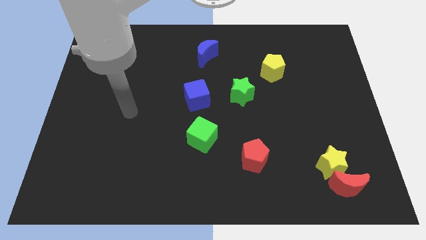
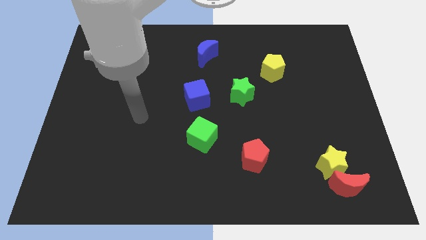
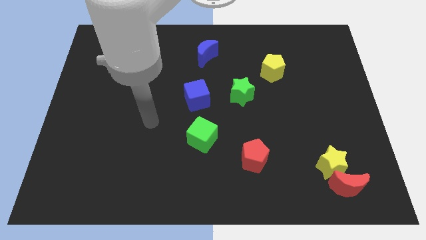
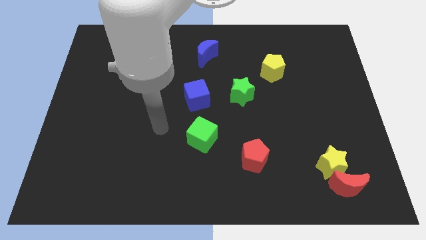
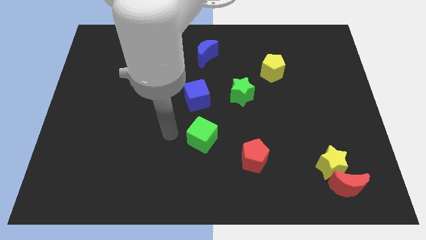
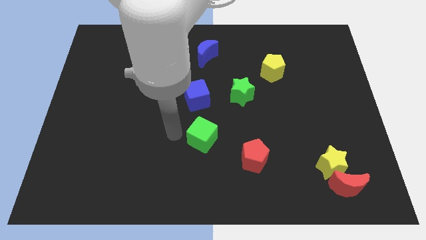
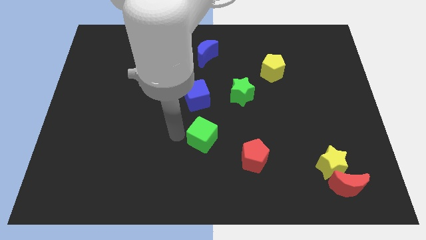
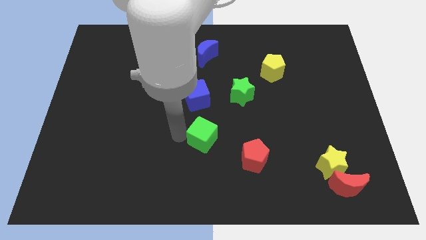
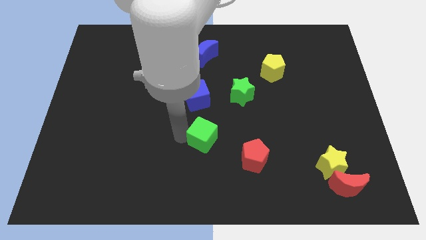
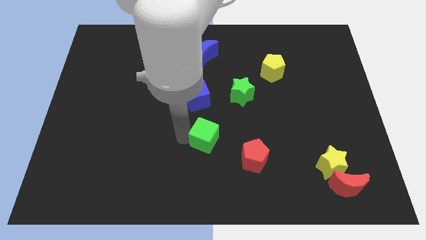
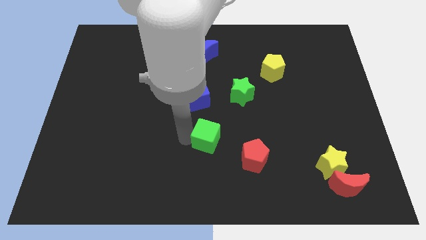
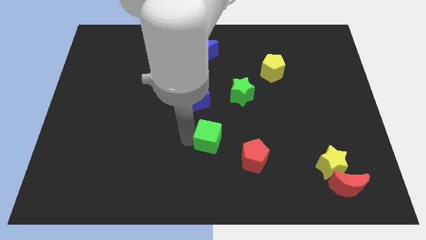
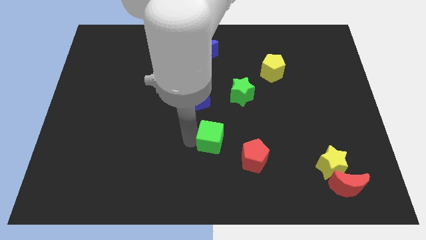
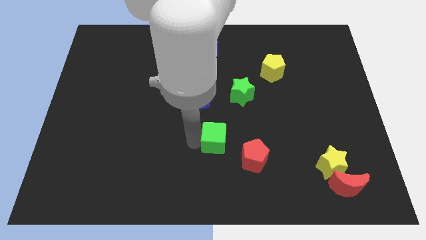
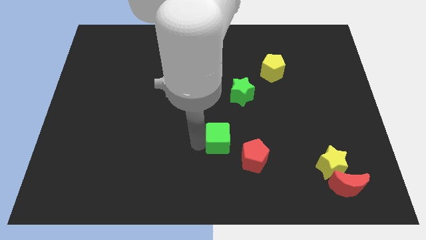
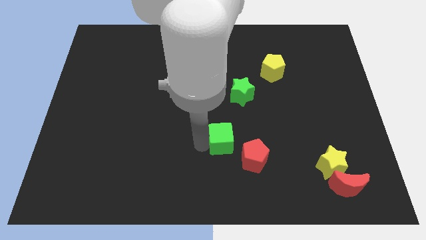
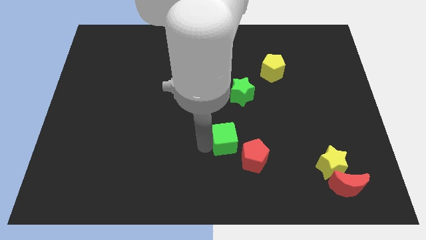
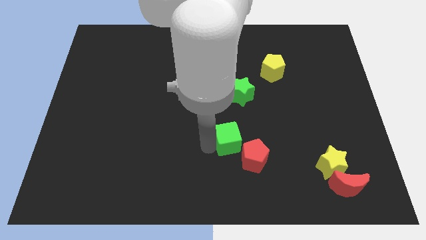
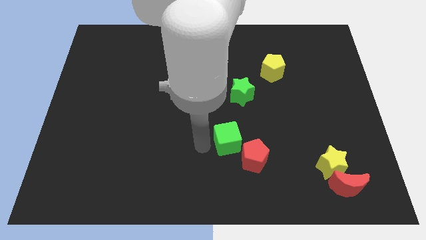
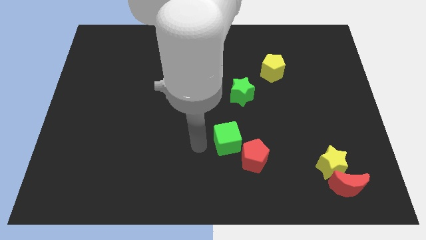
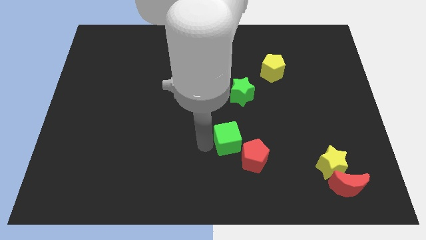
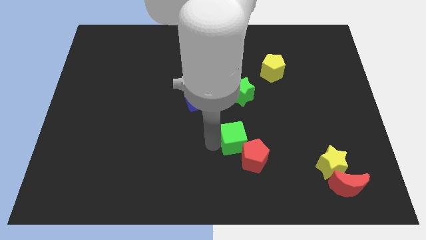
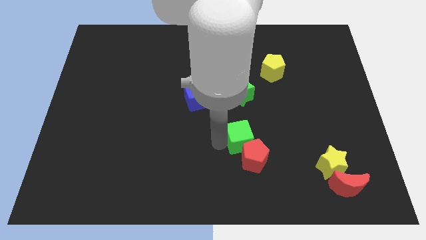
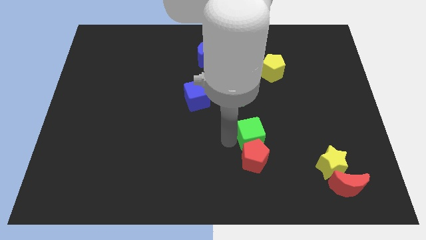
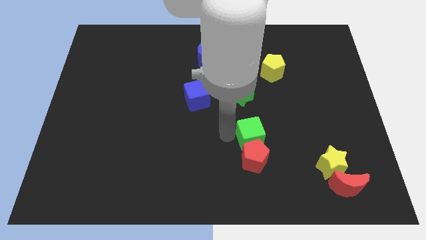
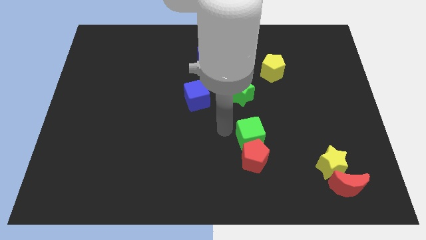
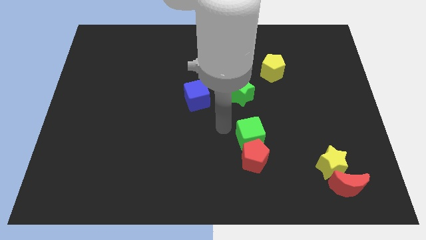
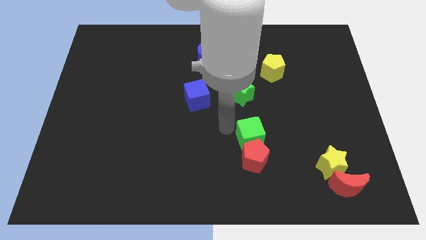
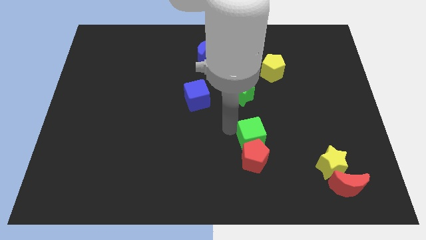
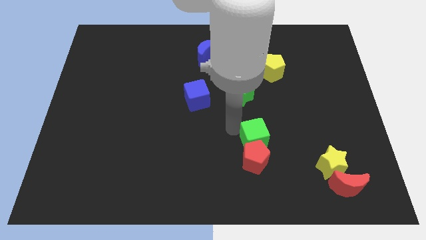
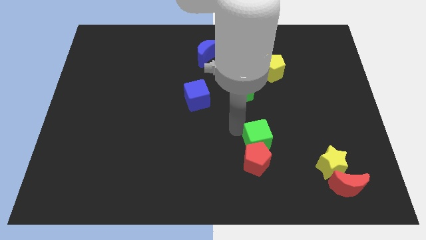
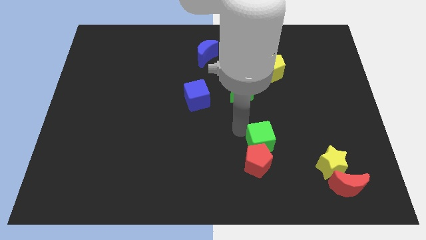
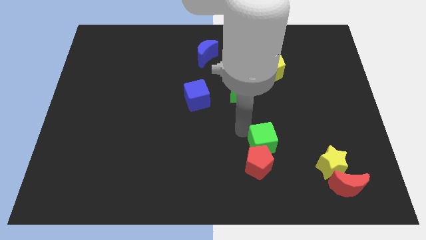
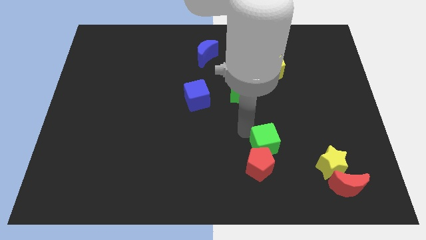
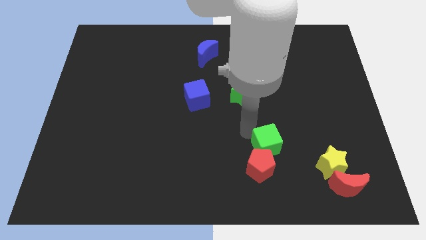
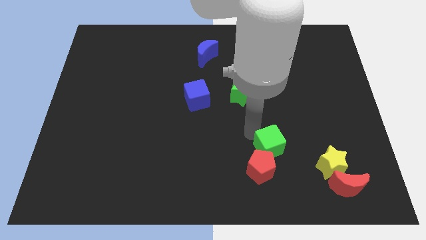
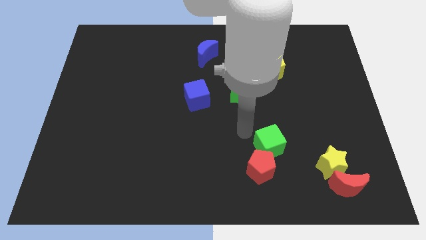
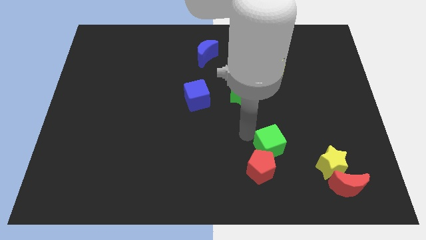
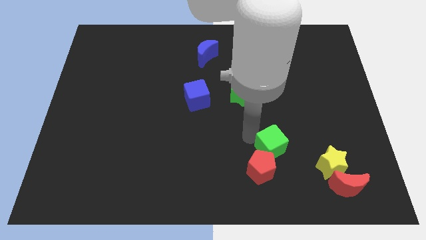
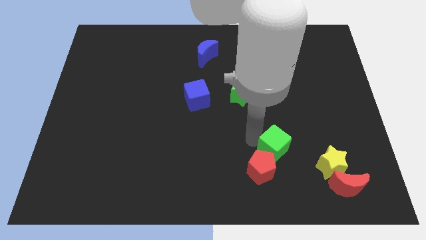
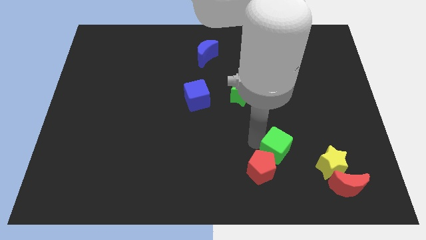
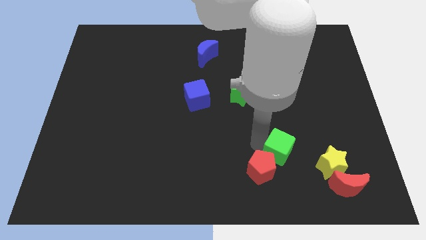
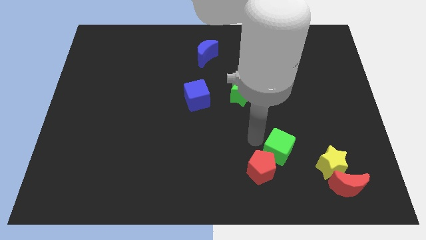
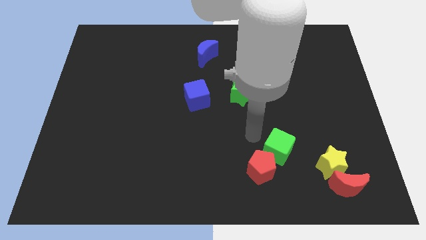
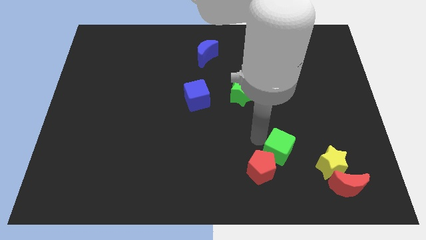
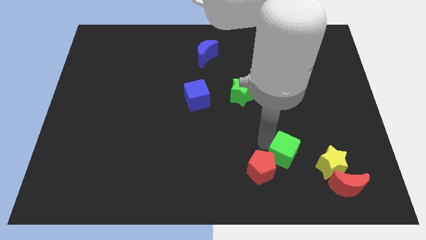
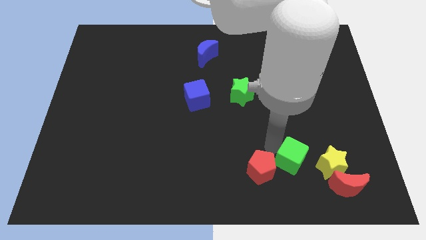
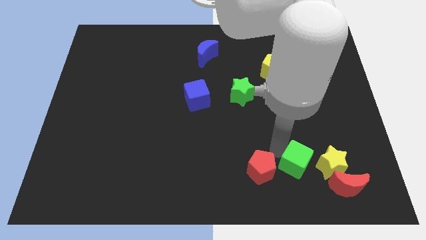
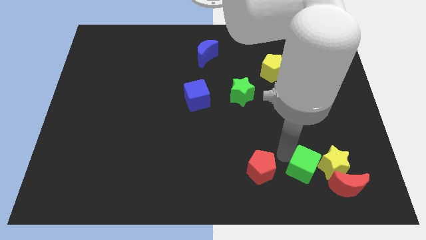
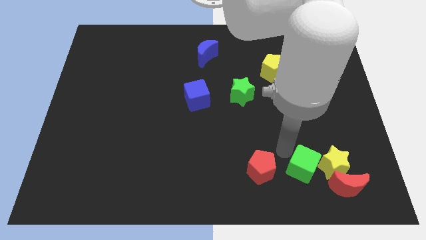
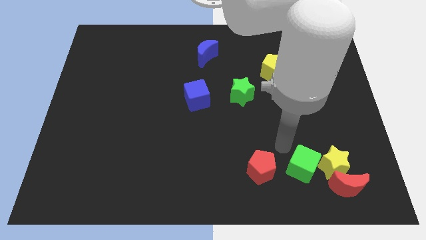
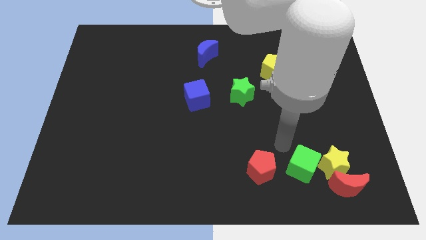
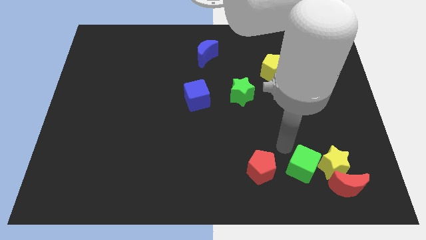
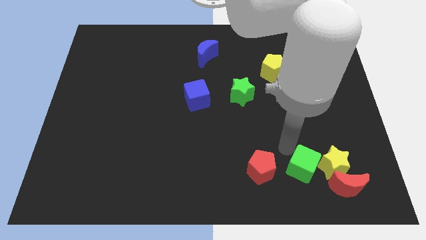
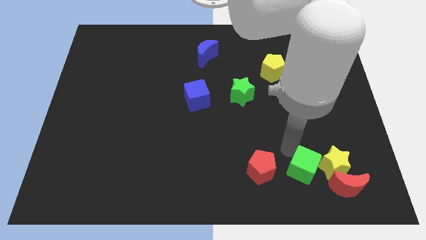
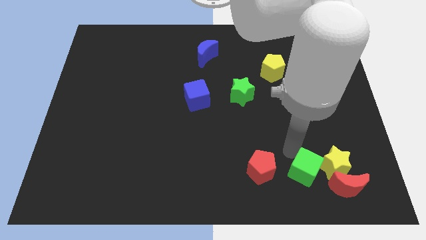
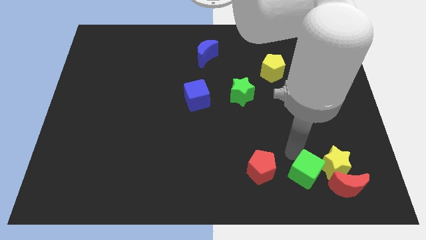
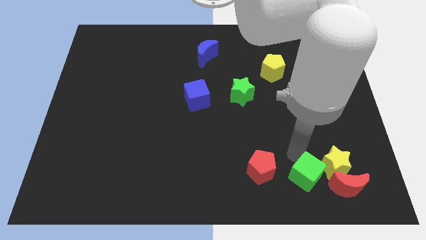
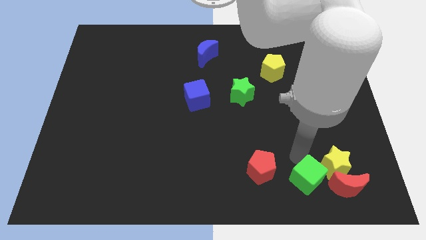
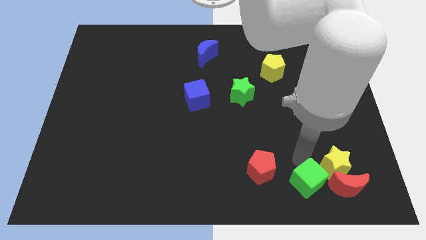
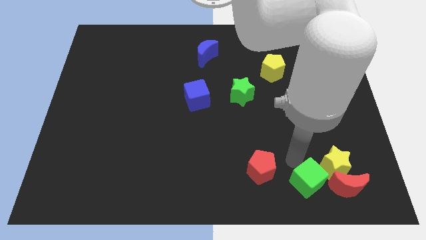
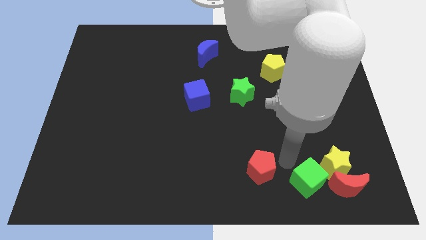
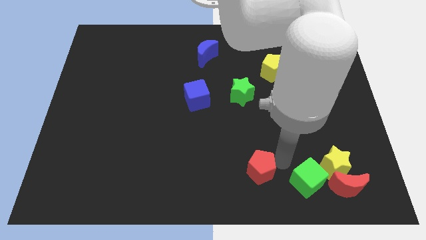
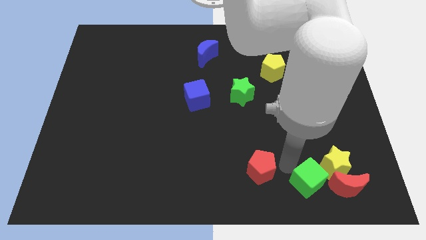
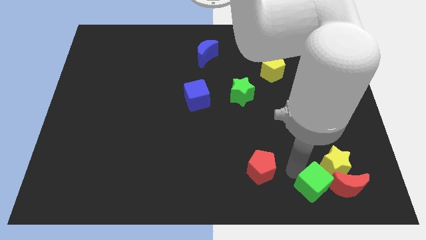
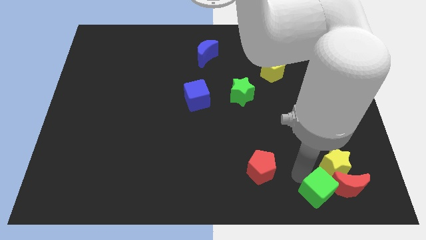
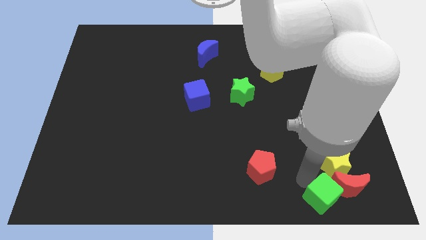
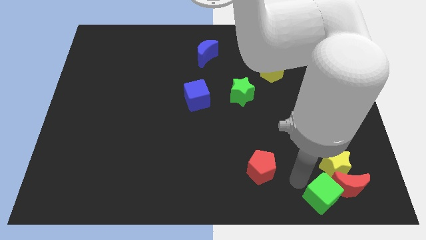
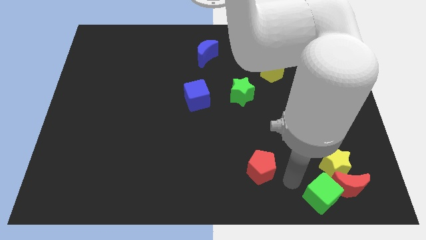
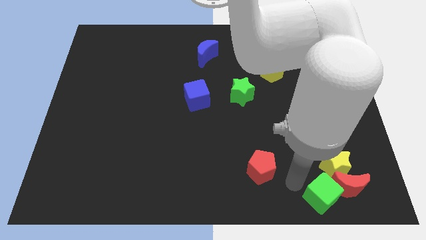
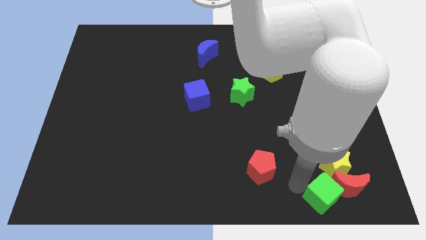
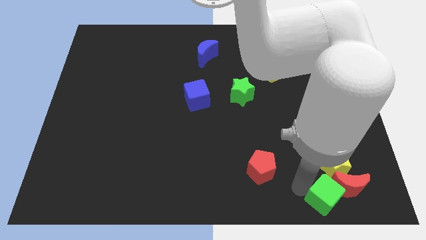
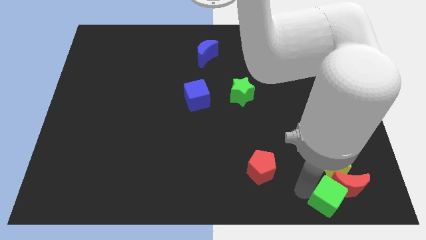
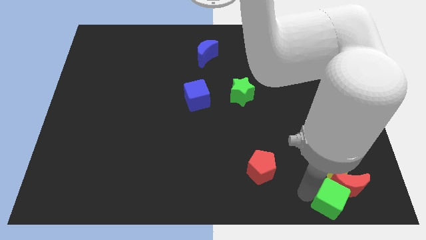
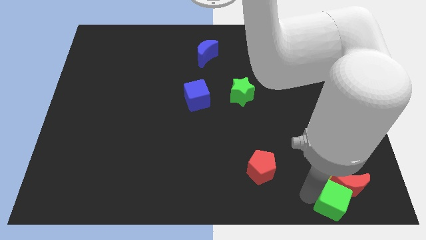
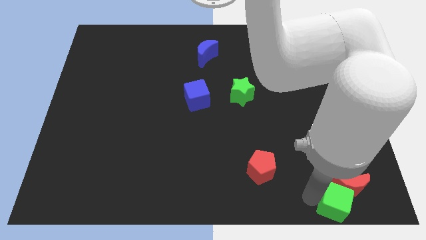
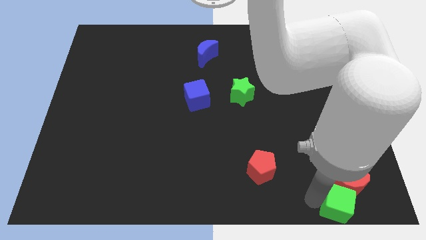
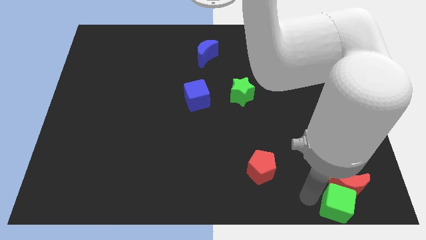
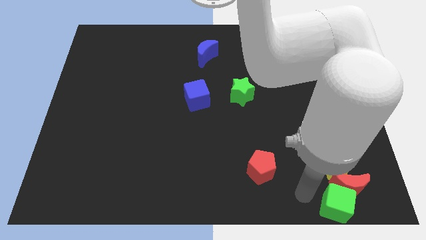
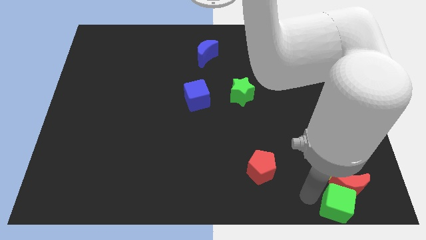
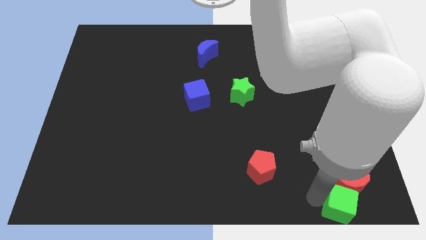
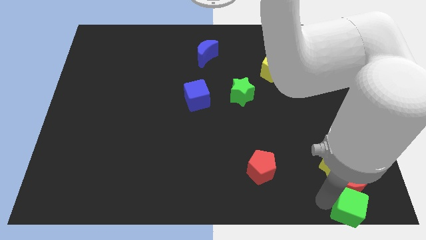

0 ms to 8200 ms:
slide the green cube to the bottom right of the board
